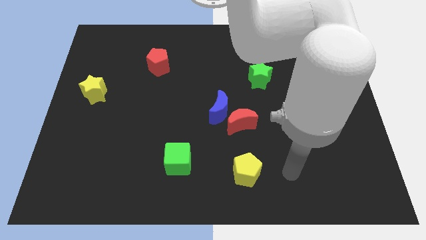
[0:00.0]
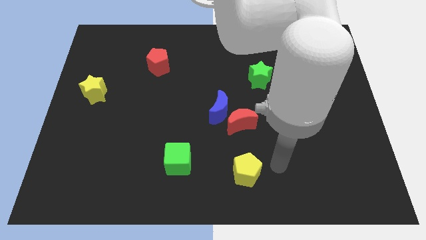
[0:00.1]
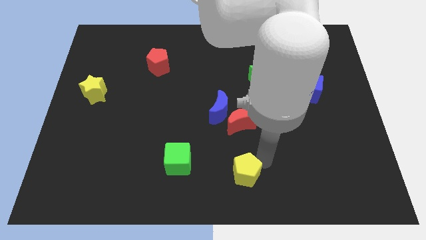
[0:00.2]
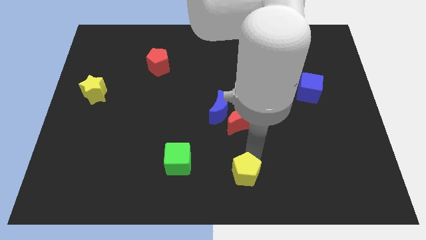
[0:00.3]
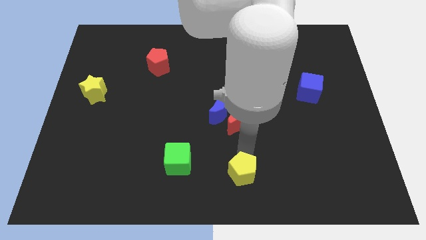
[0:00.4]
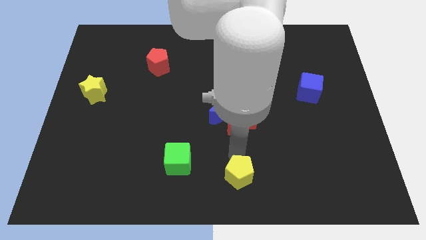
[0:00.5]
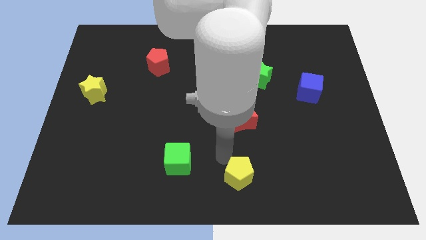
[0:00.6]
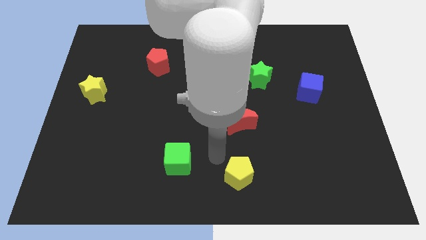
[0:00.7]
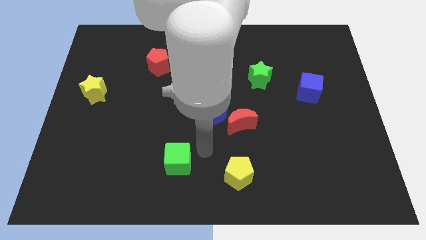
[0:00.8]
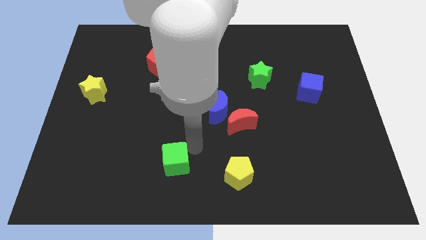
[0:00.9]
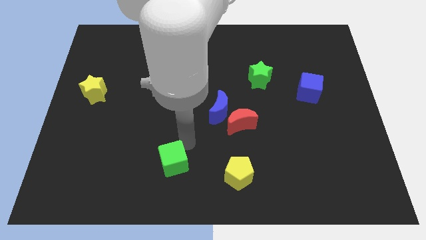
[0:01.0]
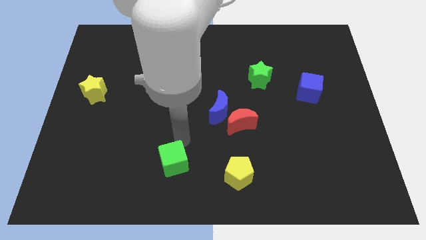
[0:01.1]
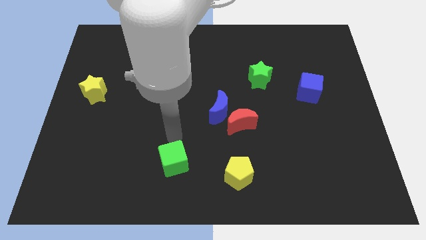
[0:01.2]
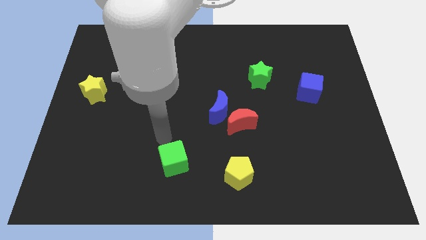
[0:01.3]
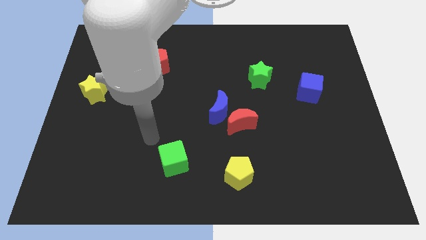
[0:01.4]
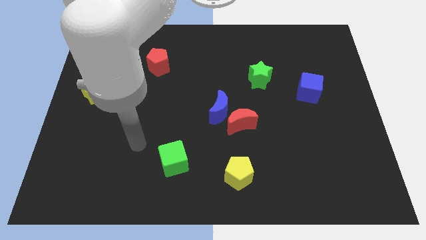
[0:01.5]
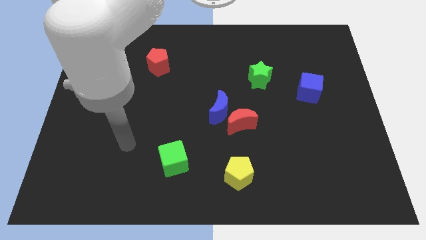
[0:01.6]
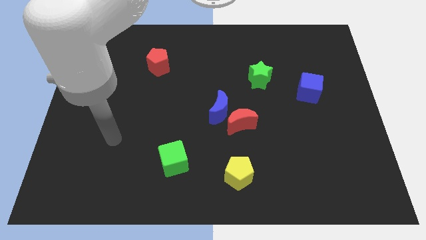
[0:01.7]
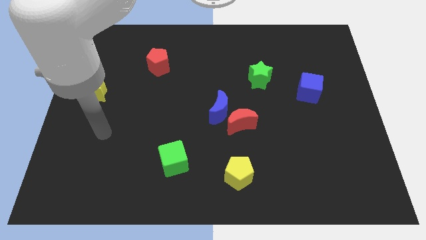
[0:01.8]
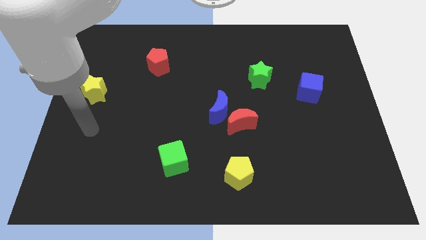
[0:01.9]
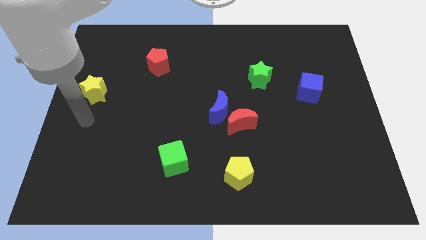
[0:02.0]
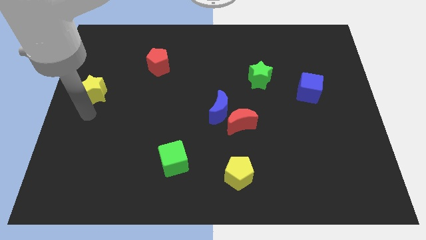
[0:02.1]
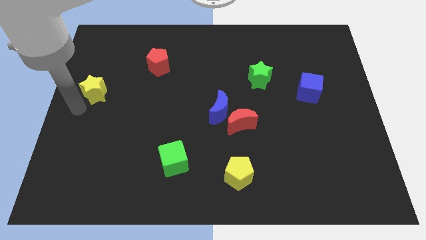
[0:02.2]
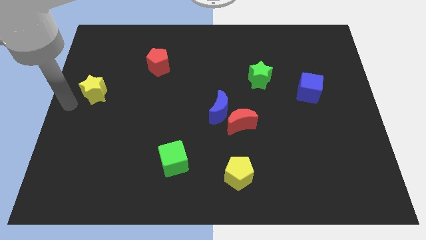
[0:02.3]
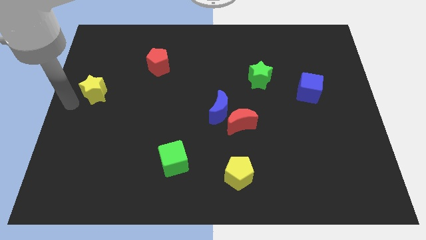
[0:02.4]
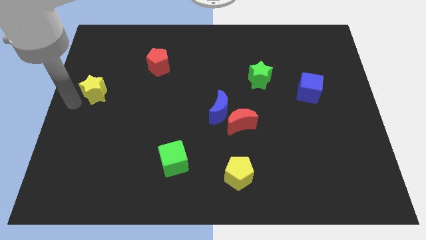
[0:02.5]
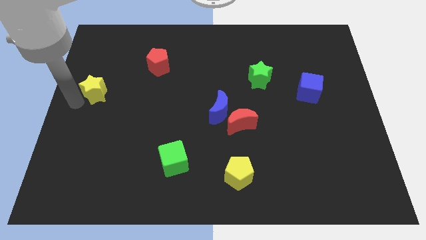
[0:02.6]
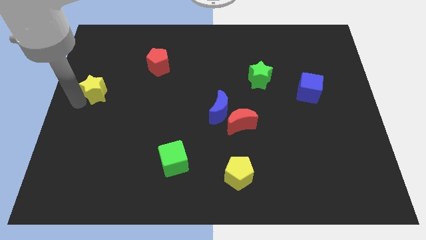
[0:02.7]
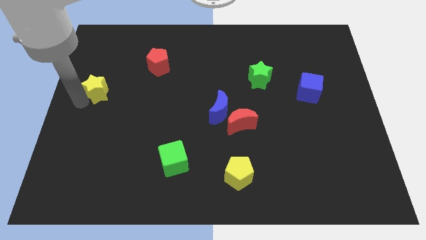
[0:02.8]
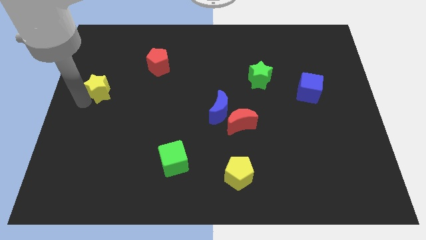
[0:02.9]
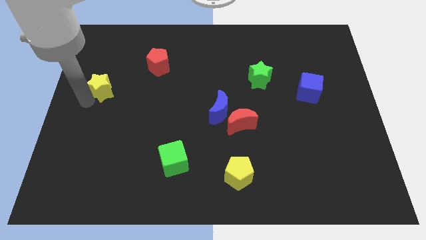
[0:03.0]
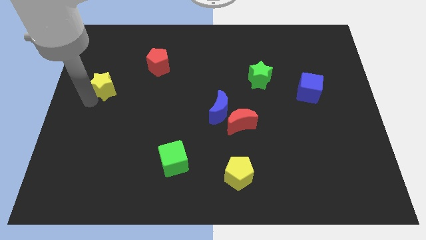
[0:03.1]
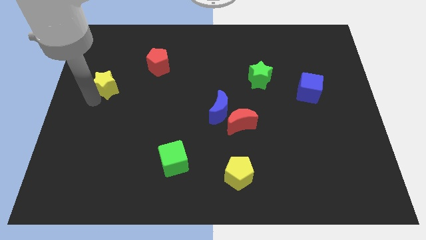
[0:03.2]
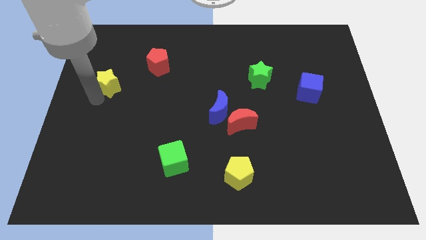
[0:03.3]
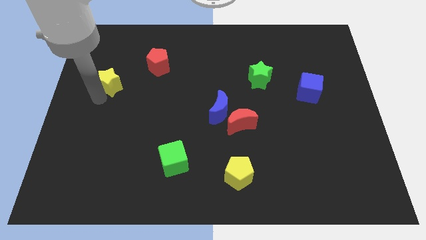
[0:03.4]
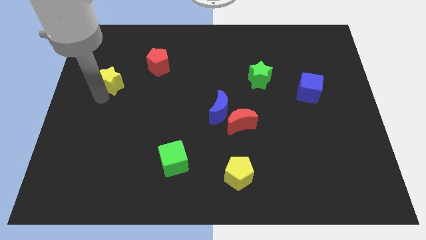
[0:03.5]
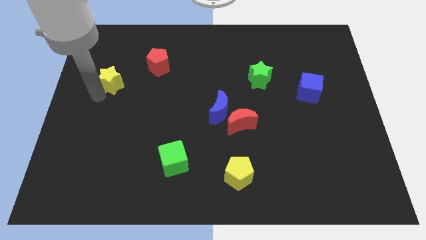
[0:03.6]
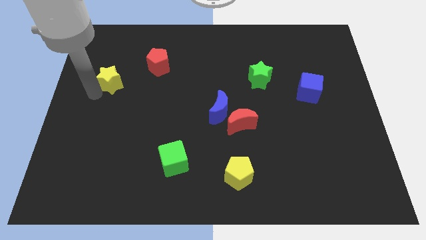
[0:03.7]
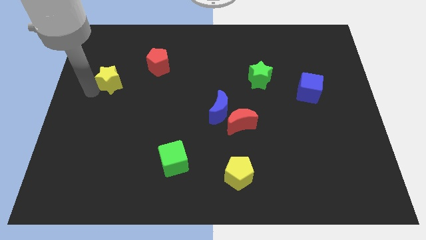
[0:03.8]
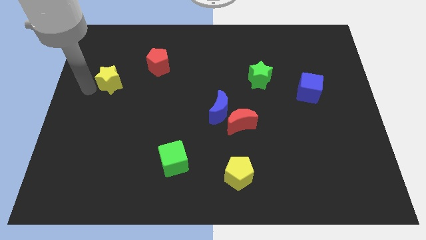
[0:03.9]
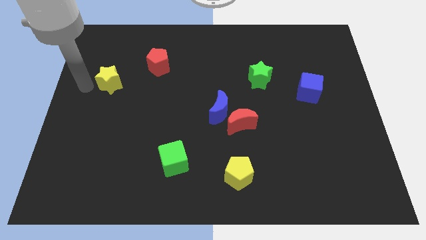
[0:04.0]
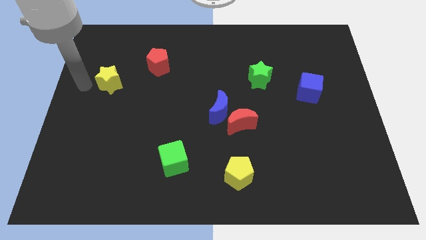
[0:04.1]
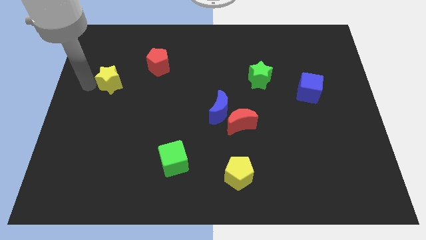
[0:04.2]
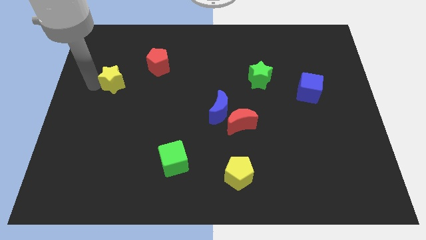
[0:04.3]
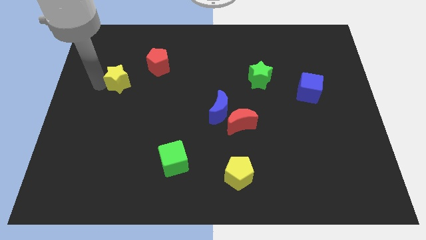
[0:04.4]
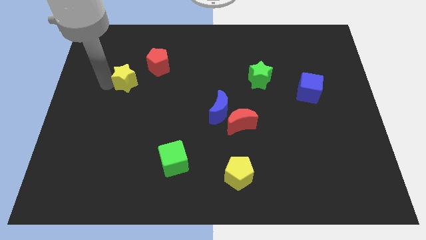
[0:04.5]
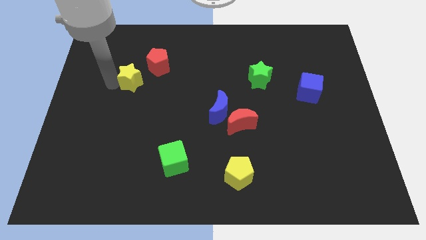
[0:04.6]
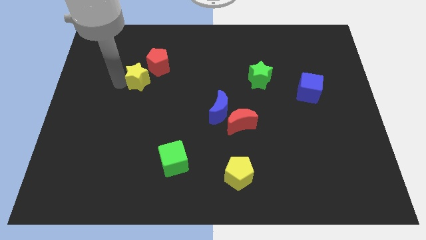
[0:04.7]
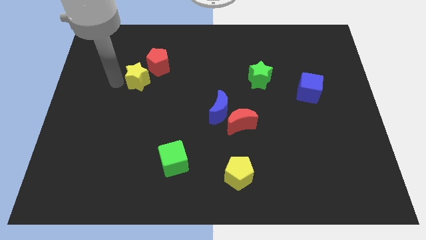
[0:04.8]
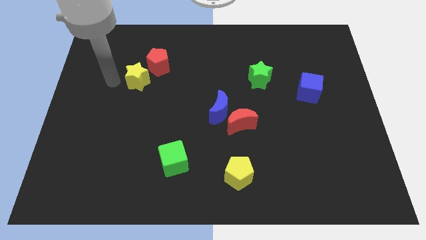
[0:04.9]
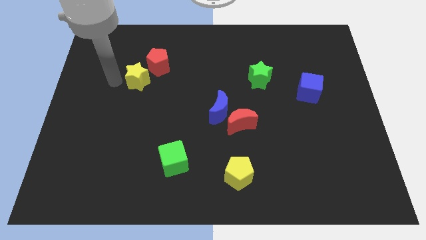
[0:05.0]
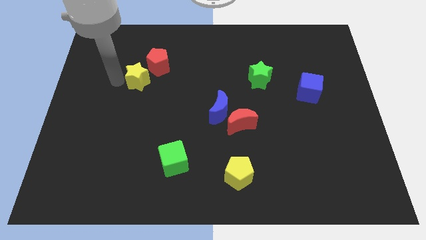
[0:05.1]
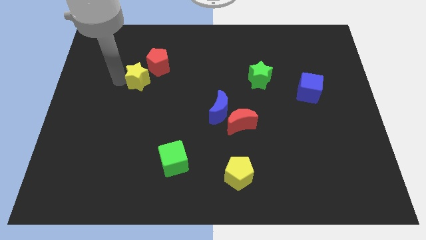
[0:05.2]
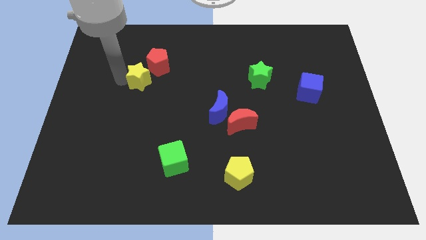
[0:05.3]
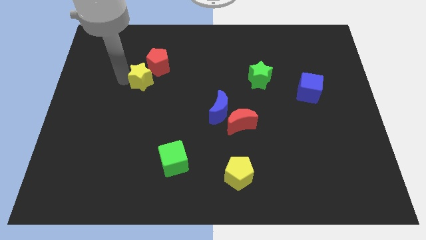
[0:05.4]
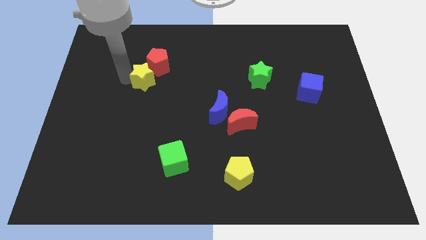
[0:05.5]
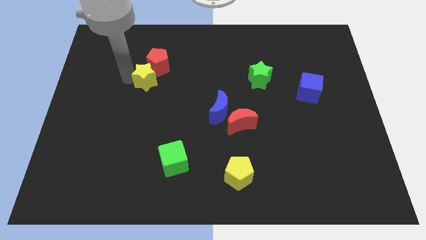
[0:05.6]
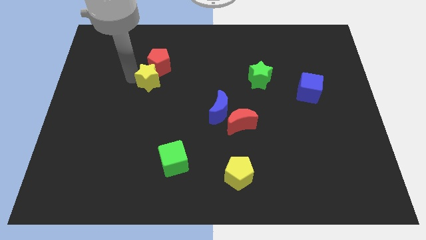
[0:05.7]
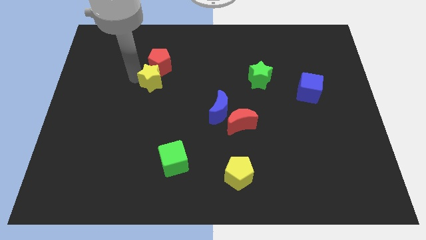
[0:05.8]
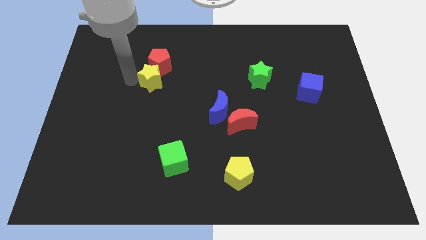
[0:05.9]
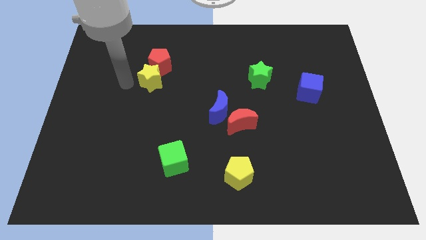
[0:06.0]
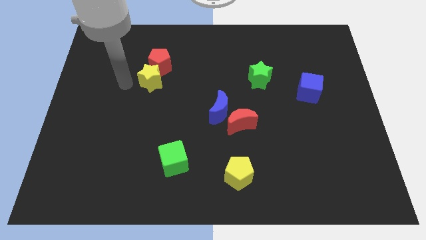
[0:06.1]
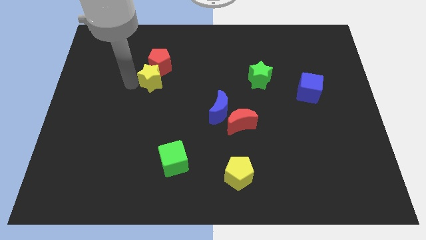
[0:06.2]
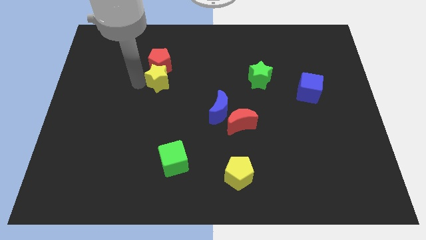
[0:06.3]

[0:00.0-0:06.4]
move the yellow star to the bottom right of the red pentagon
